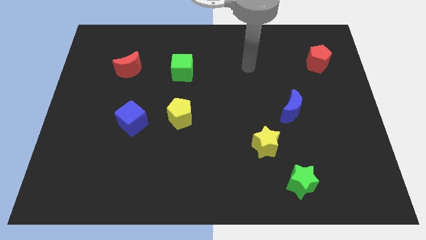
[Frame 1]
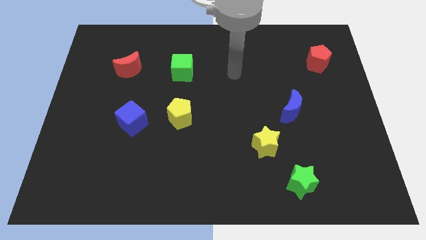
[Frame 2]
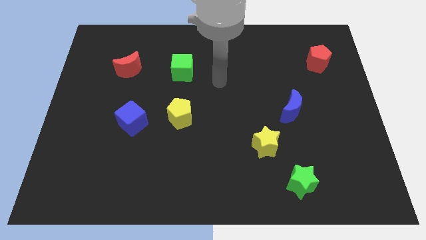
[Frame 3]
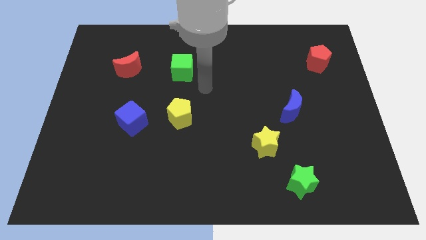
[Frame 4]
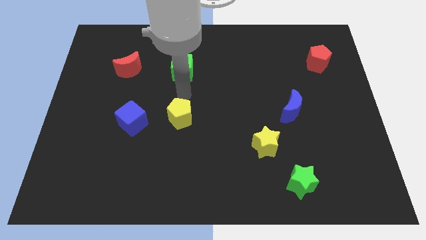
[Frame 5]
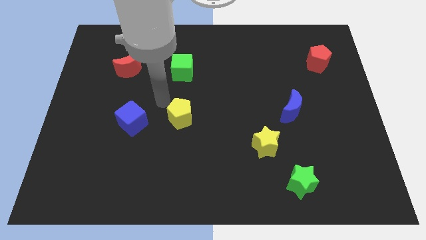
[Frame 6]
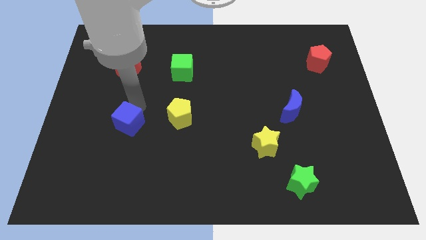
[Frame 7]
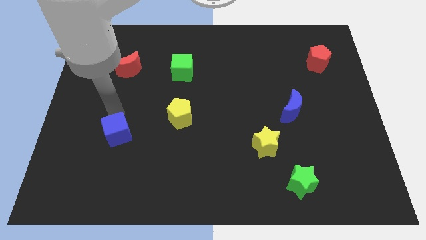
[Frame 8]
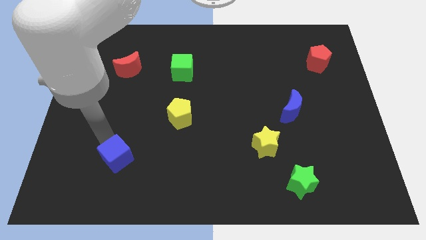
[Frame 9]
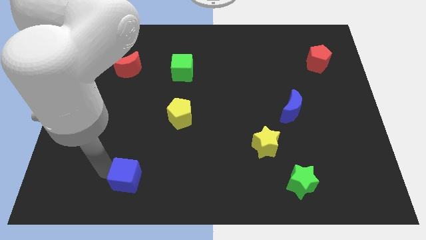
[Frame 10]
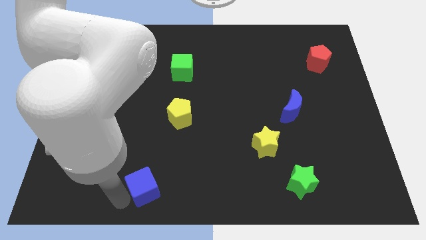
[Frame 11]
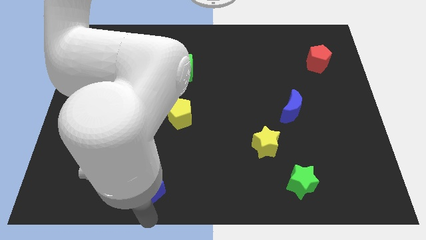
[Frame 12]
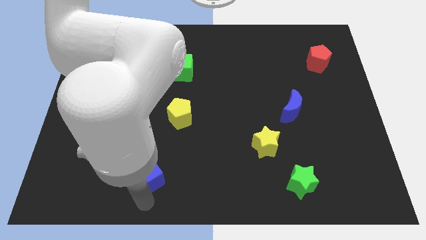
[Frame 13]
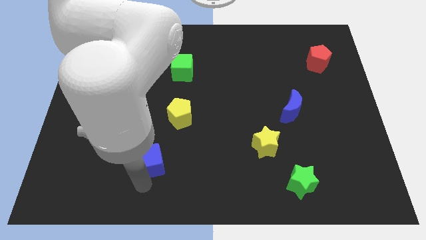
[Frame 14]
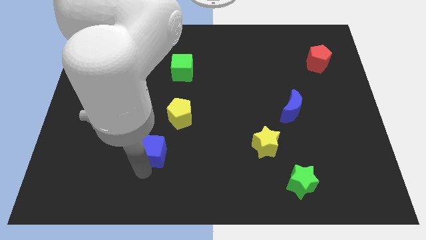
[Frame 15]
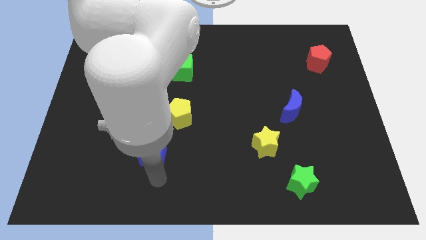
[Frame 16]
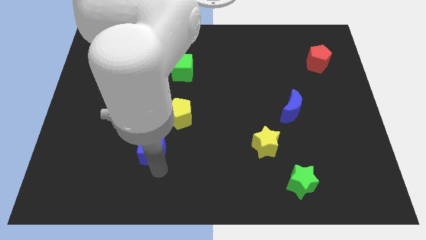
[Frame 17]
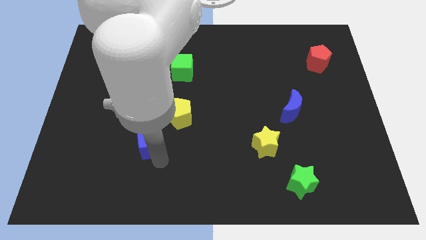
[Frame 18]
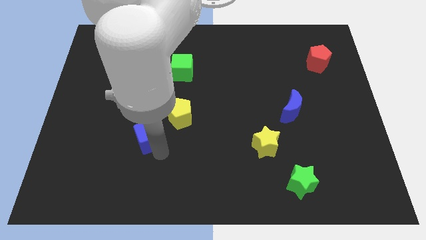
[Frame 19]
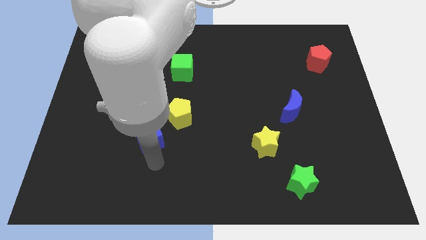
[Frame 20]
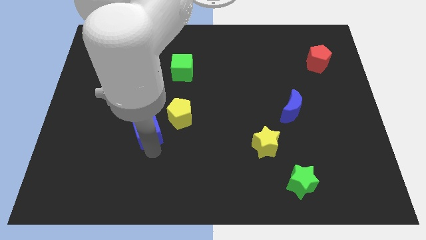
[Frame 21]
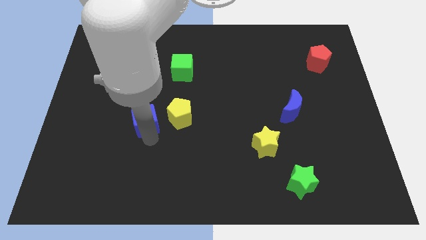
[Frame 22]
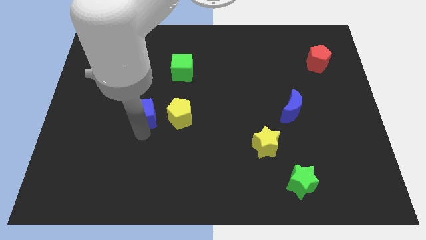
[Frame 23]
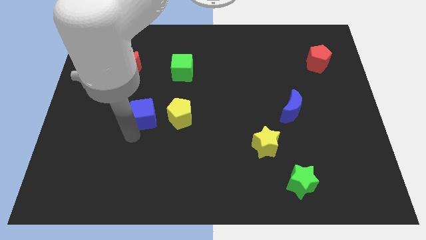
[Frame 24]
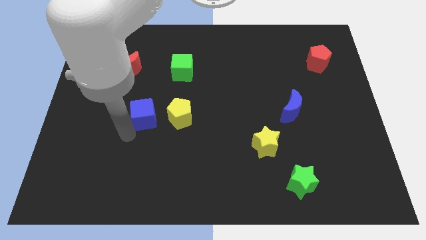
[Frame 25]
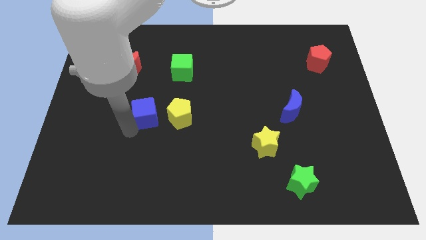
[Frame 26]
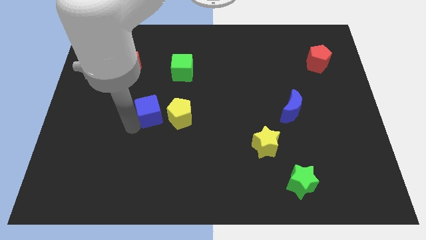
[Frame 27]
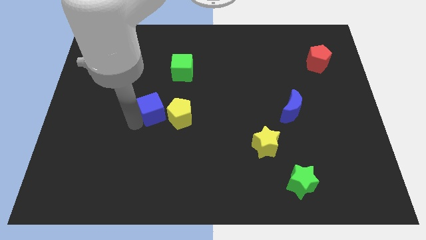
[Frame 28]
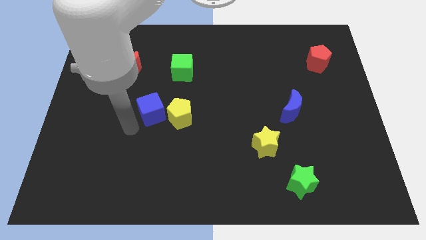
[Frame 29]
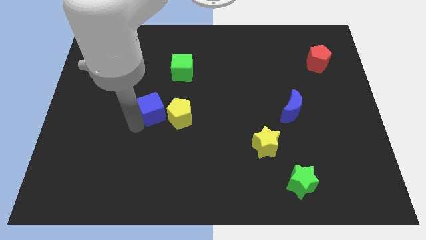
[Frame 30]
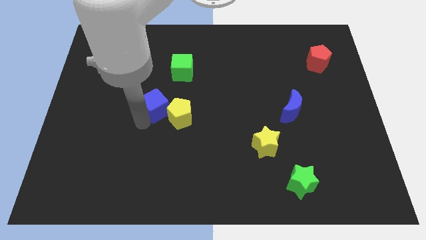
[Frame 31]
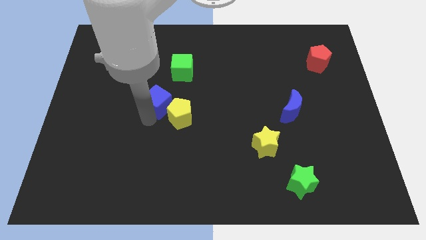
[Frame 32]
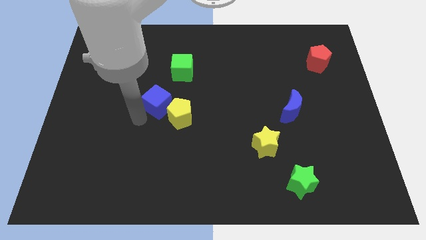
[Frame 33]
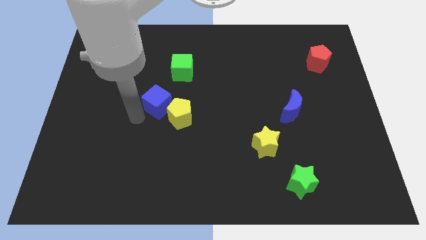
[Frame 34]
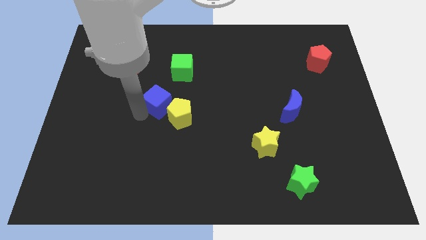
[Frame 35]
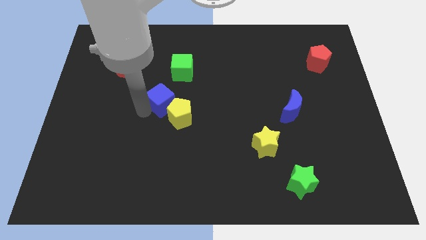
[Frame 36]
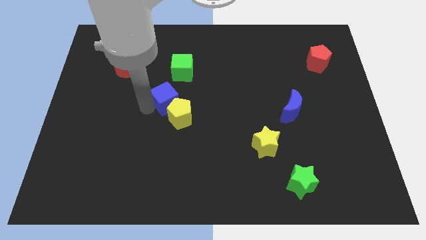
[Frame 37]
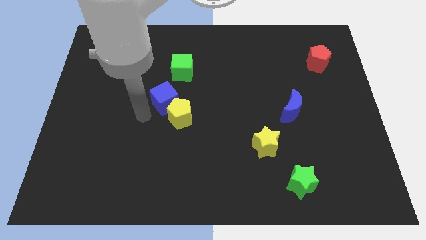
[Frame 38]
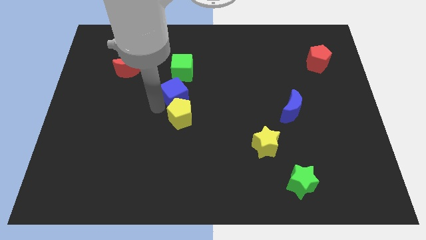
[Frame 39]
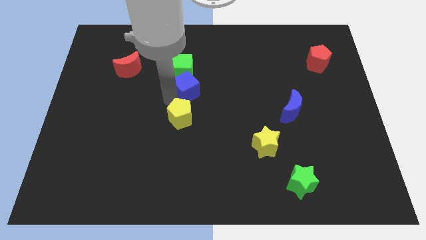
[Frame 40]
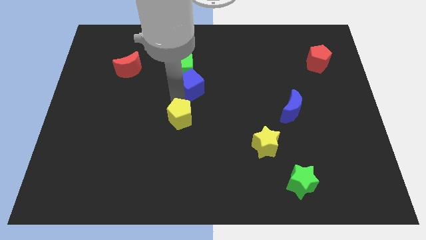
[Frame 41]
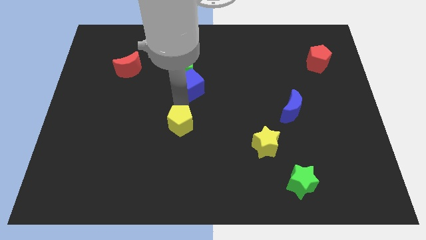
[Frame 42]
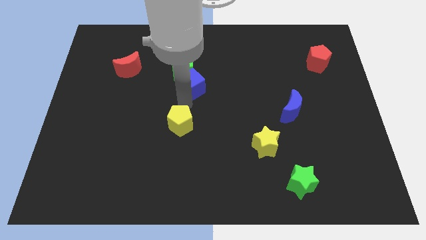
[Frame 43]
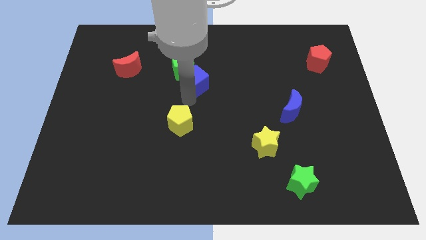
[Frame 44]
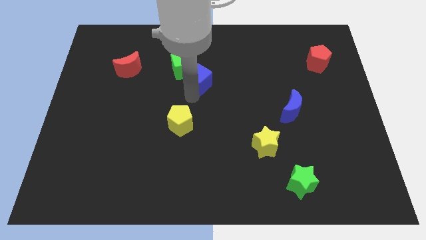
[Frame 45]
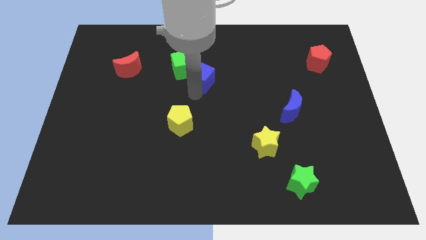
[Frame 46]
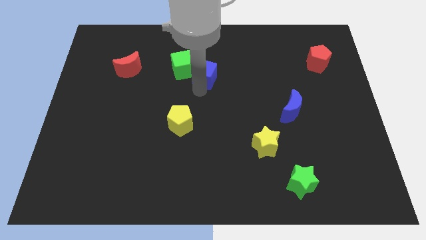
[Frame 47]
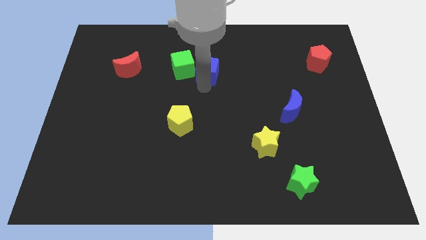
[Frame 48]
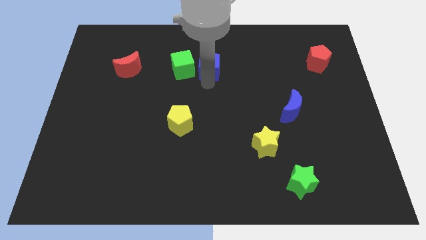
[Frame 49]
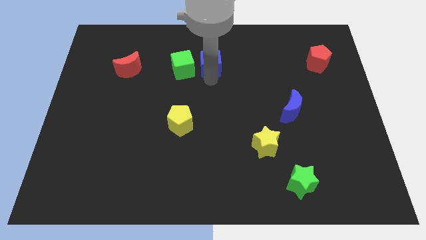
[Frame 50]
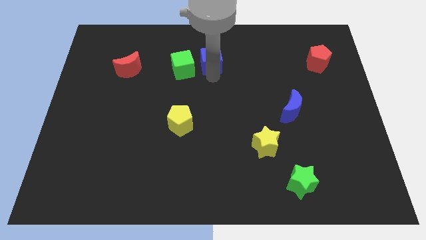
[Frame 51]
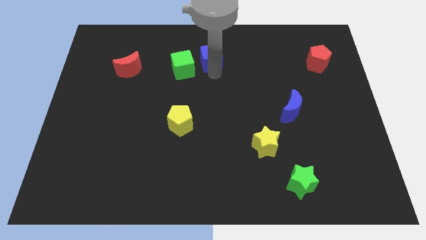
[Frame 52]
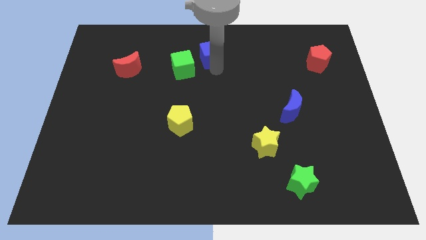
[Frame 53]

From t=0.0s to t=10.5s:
move the blue cube to the top side

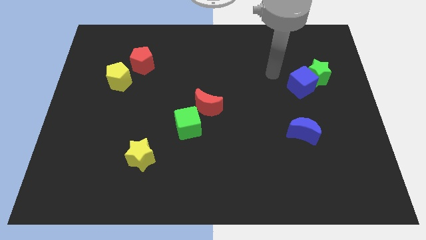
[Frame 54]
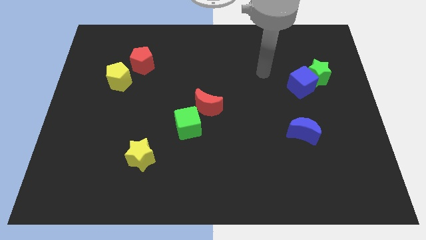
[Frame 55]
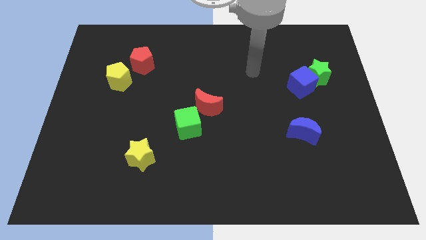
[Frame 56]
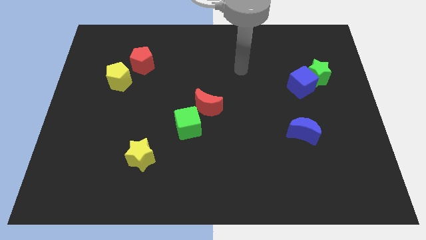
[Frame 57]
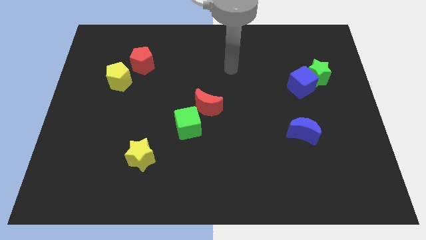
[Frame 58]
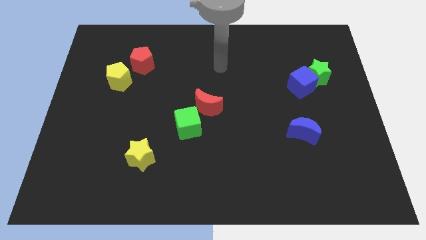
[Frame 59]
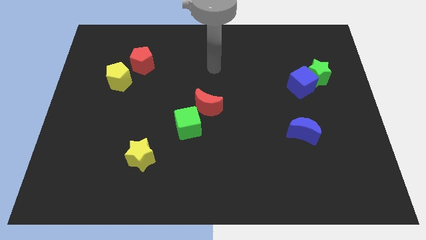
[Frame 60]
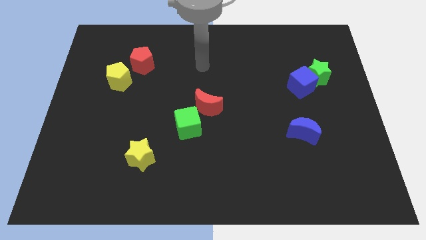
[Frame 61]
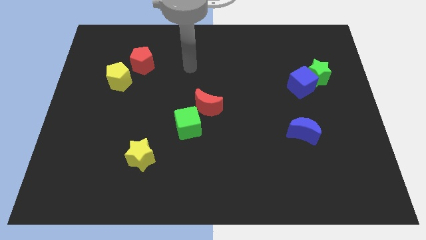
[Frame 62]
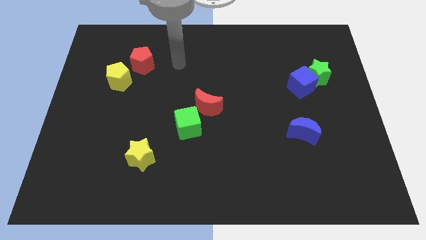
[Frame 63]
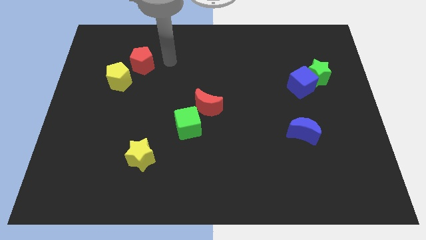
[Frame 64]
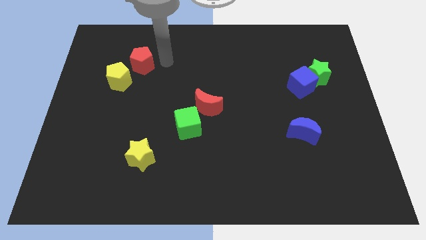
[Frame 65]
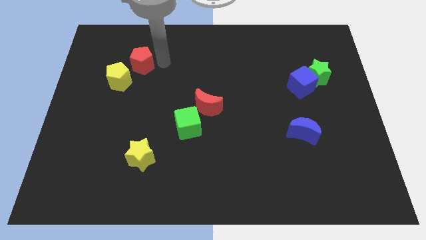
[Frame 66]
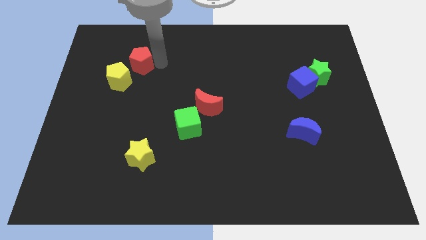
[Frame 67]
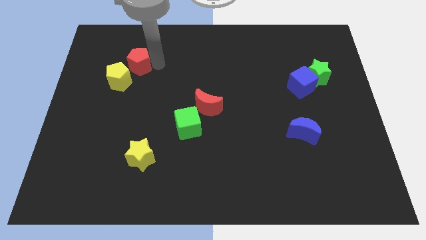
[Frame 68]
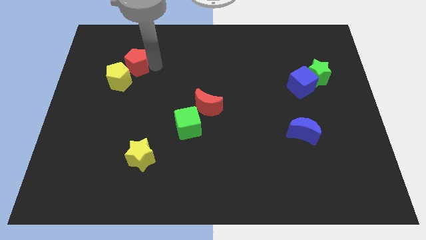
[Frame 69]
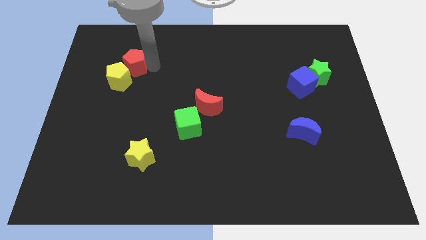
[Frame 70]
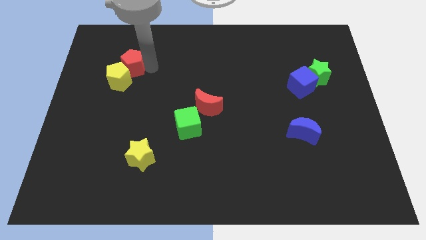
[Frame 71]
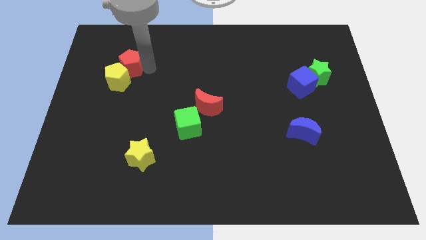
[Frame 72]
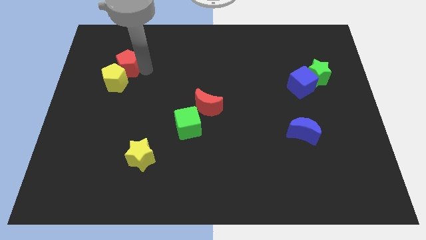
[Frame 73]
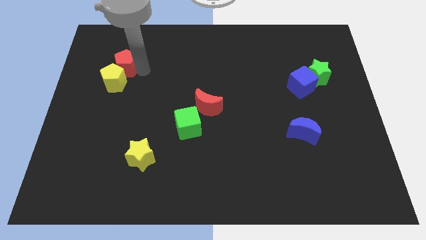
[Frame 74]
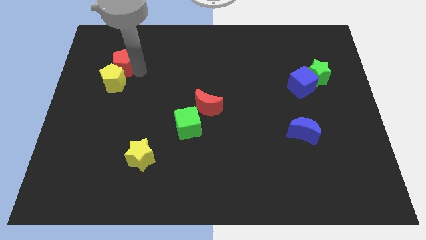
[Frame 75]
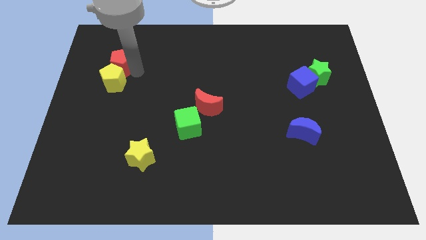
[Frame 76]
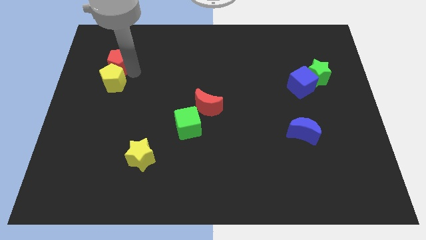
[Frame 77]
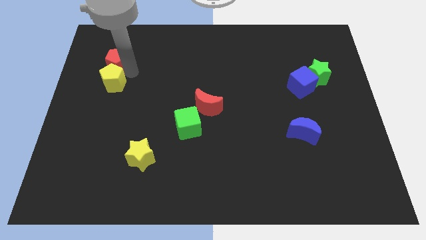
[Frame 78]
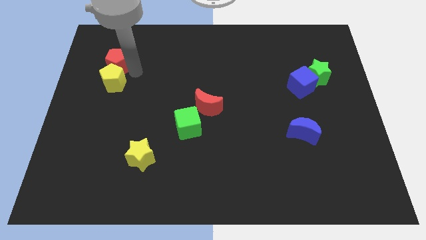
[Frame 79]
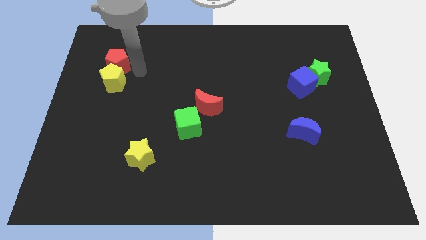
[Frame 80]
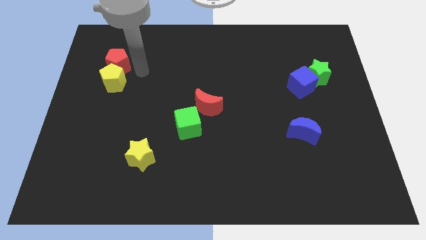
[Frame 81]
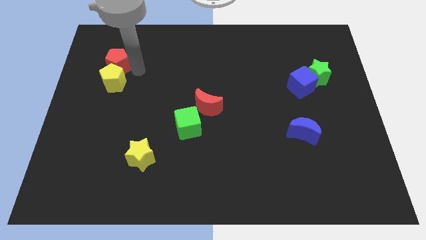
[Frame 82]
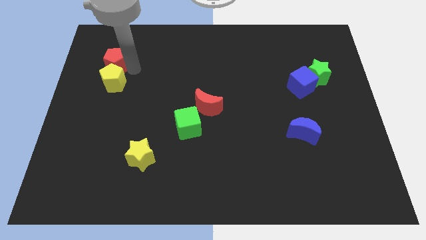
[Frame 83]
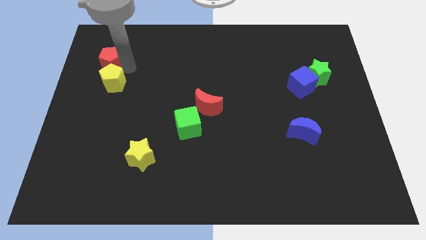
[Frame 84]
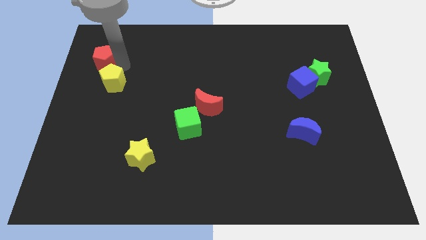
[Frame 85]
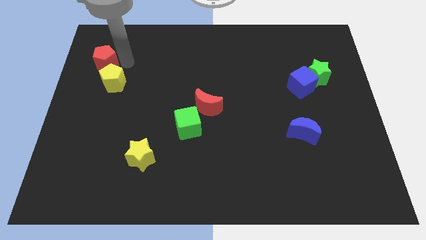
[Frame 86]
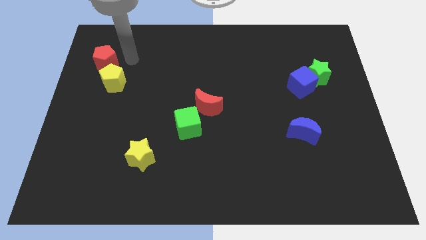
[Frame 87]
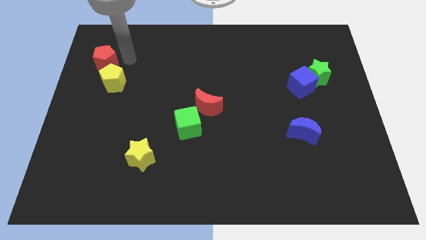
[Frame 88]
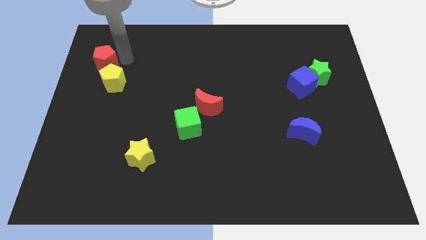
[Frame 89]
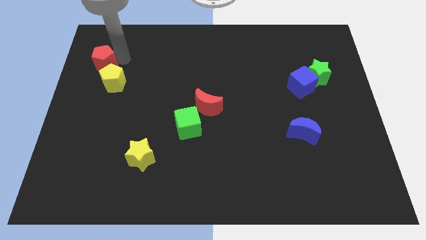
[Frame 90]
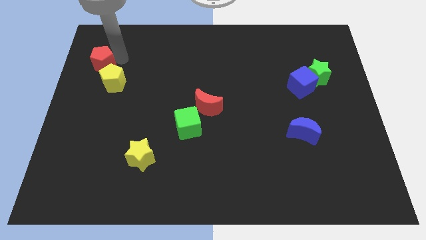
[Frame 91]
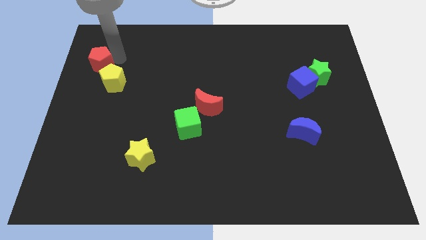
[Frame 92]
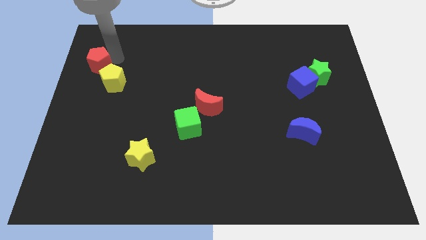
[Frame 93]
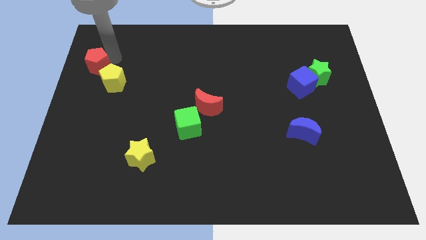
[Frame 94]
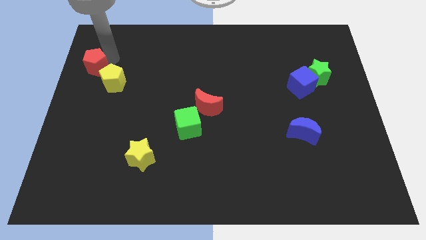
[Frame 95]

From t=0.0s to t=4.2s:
push the red pentagon to the left side
